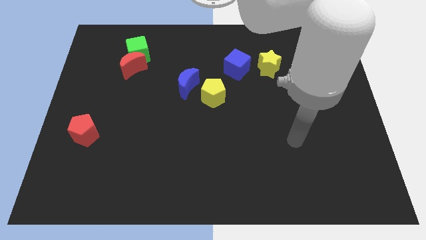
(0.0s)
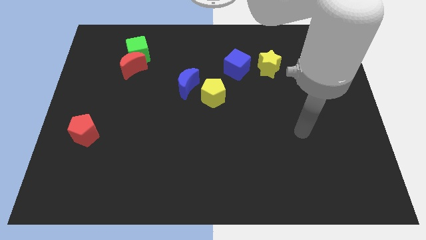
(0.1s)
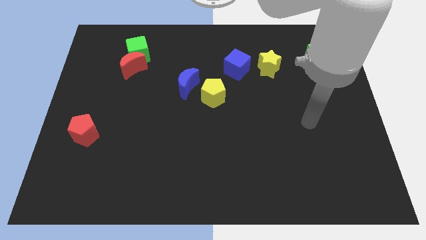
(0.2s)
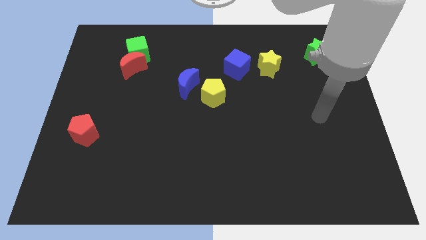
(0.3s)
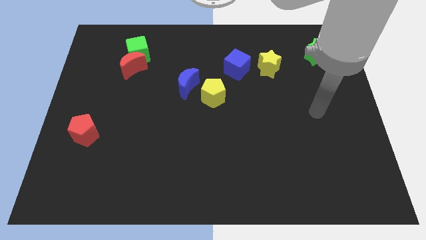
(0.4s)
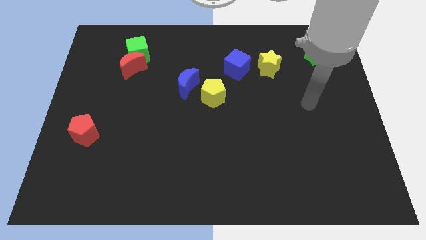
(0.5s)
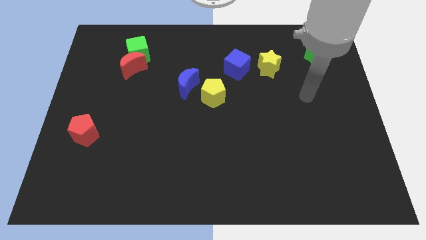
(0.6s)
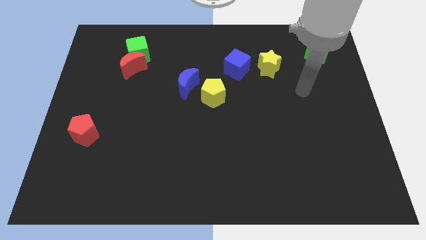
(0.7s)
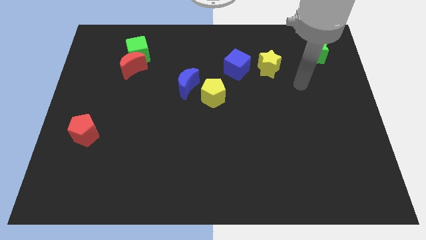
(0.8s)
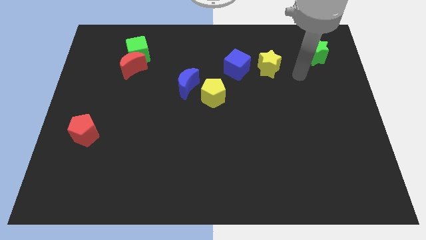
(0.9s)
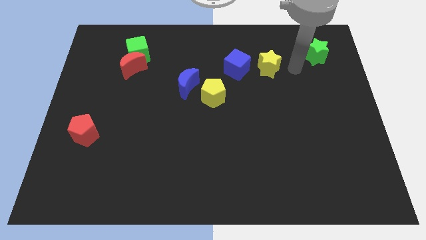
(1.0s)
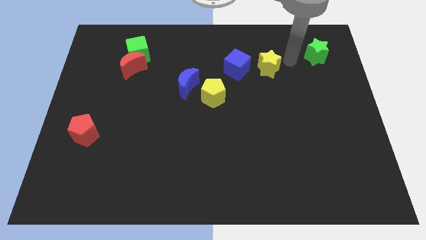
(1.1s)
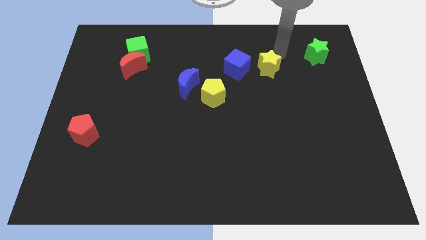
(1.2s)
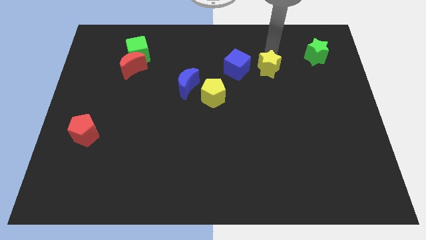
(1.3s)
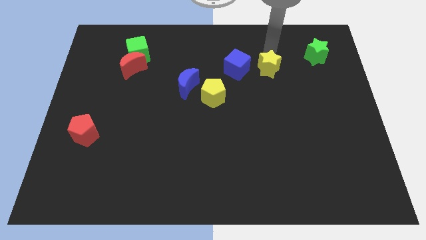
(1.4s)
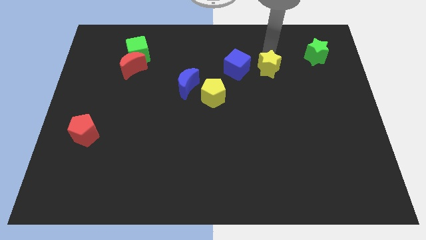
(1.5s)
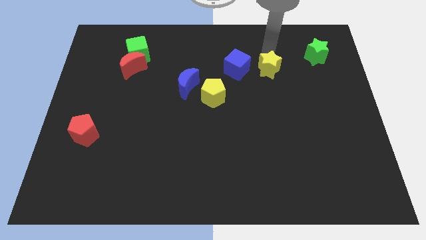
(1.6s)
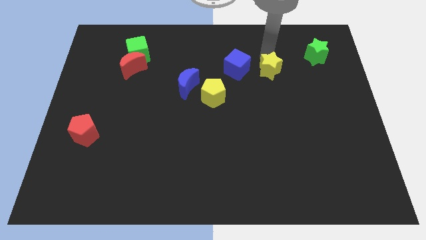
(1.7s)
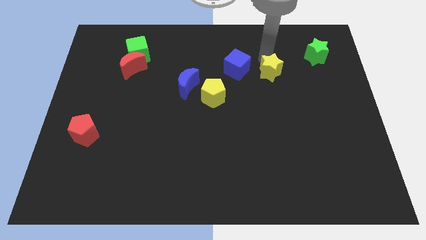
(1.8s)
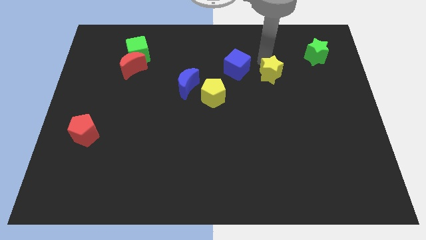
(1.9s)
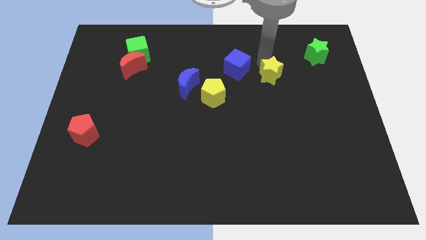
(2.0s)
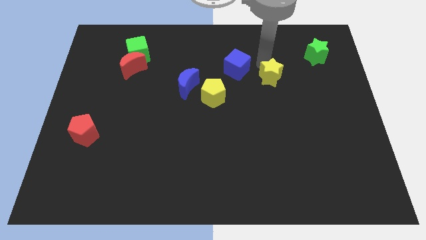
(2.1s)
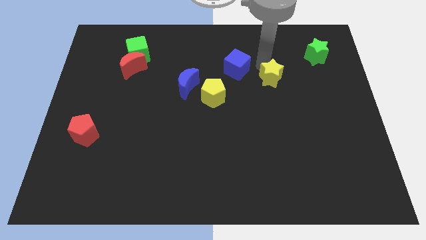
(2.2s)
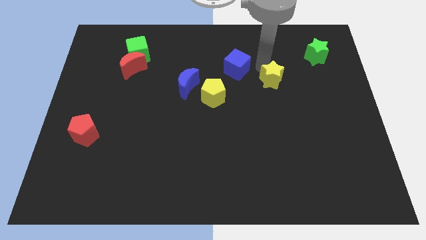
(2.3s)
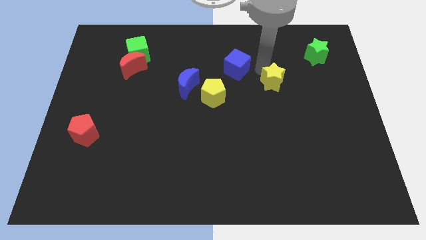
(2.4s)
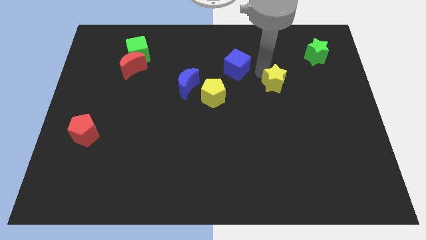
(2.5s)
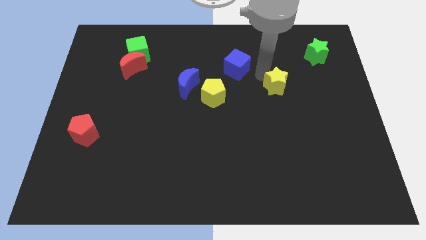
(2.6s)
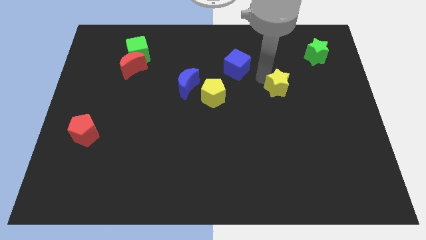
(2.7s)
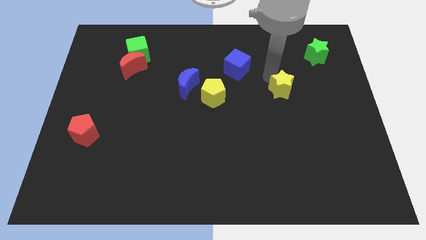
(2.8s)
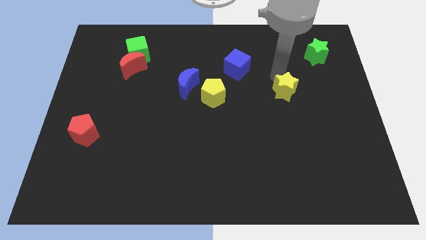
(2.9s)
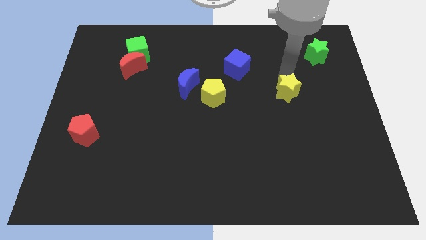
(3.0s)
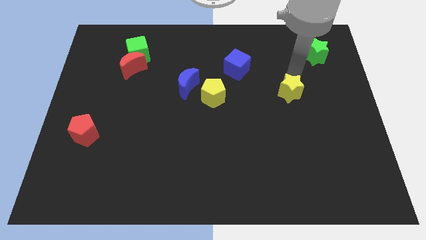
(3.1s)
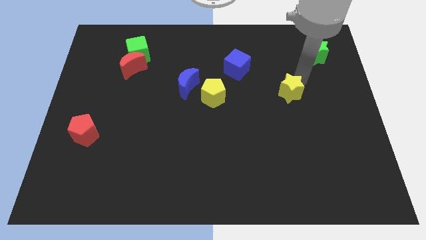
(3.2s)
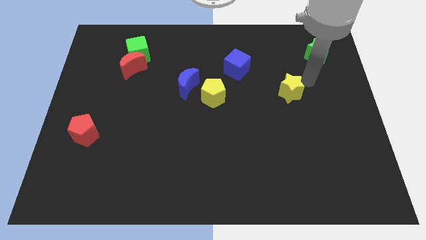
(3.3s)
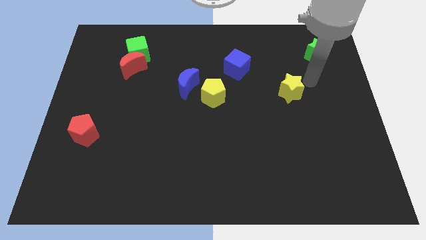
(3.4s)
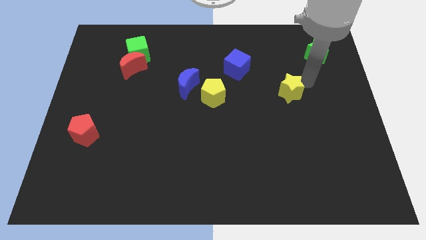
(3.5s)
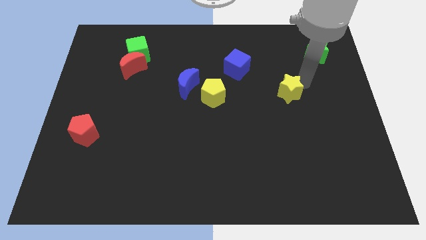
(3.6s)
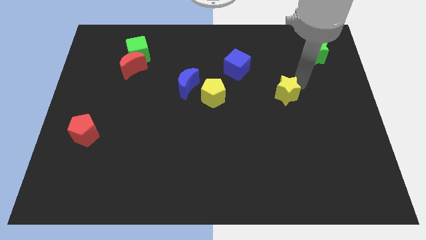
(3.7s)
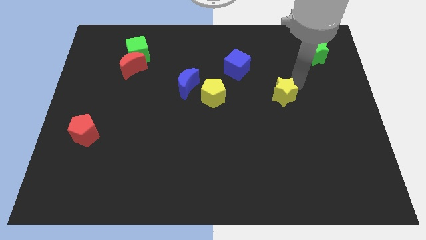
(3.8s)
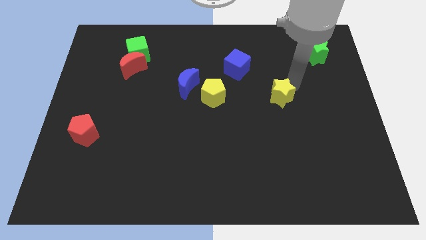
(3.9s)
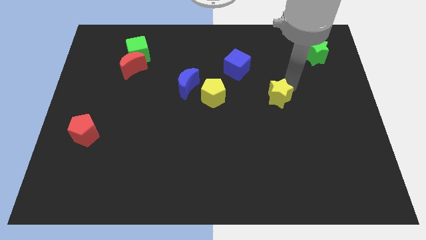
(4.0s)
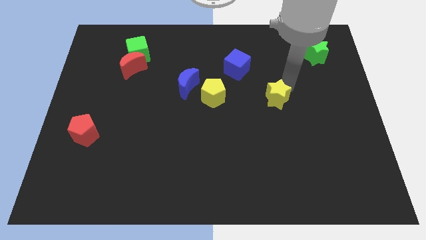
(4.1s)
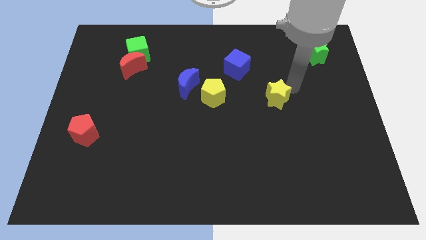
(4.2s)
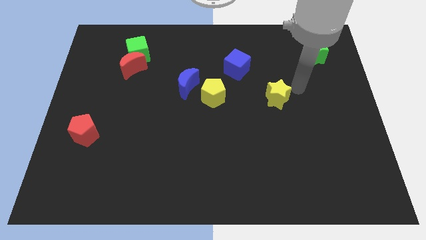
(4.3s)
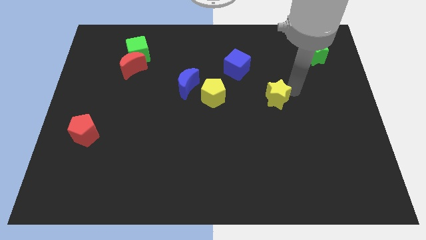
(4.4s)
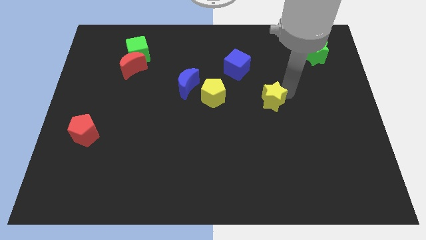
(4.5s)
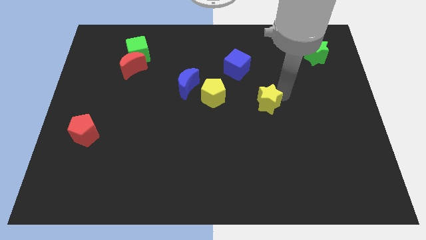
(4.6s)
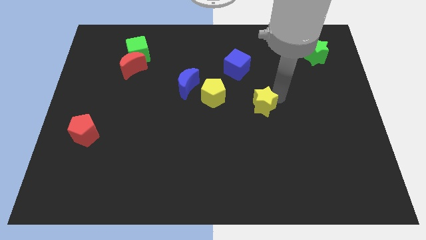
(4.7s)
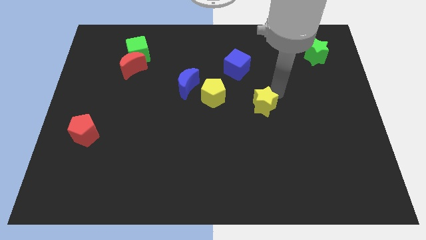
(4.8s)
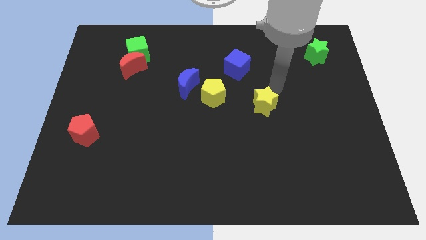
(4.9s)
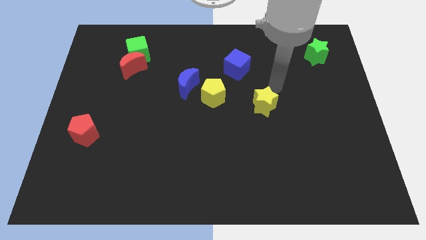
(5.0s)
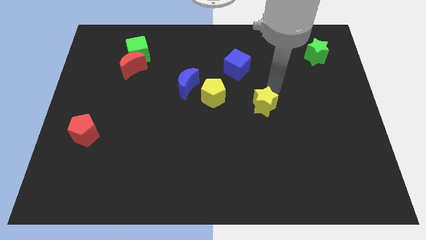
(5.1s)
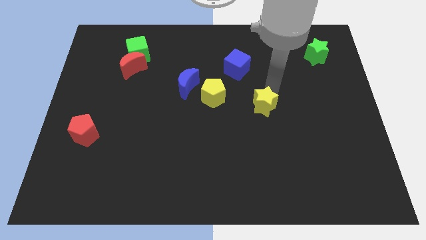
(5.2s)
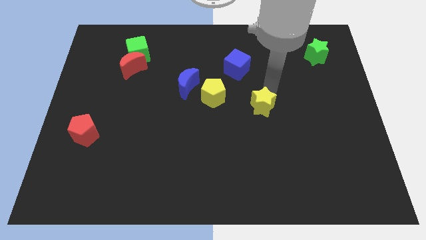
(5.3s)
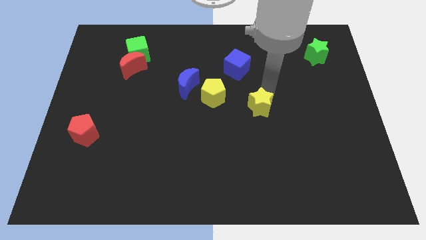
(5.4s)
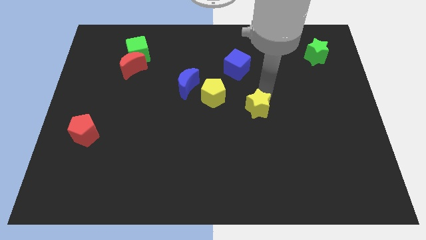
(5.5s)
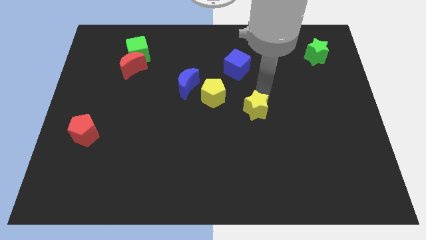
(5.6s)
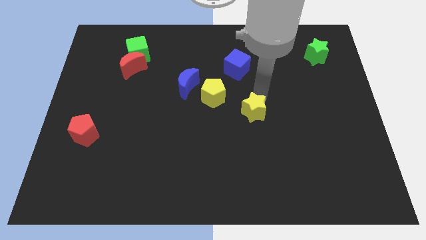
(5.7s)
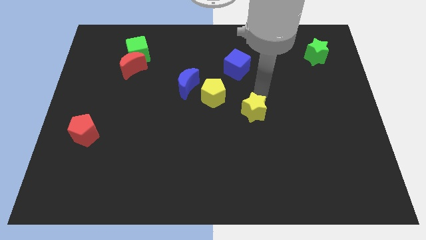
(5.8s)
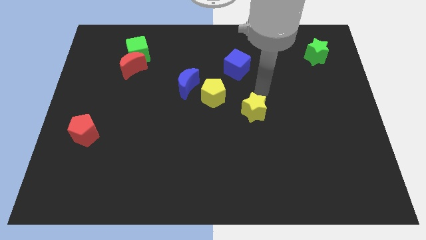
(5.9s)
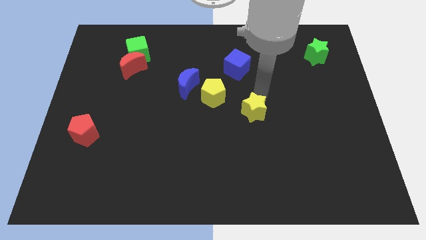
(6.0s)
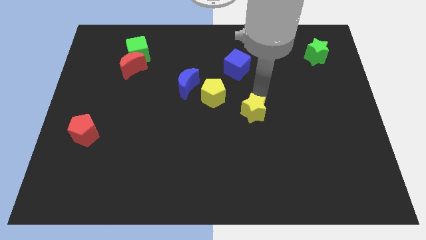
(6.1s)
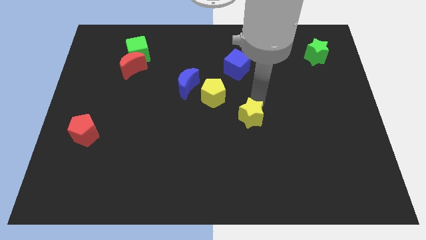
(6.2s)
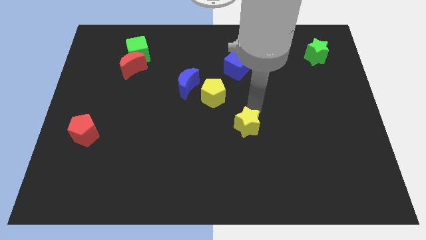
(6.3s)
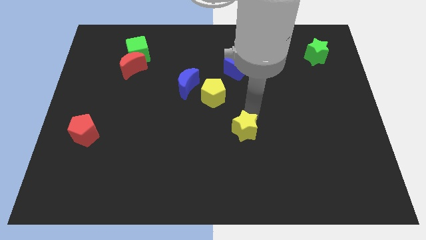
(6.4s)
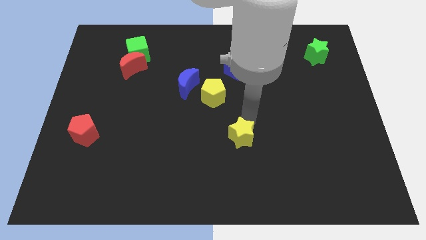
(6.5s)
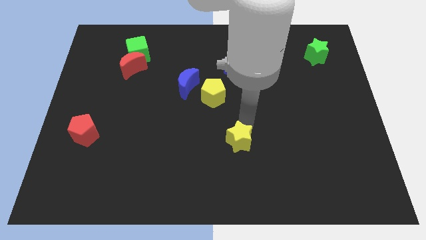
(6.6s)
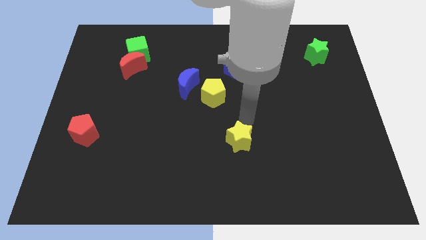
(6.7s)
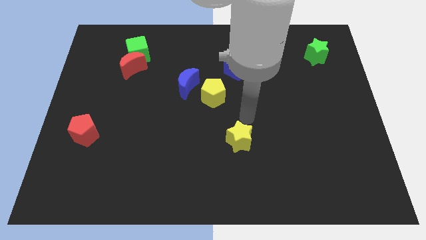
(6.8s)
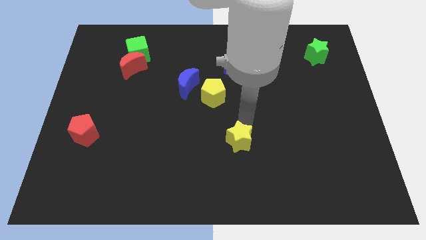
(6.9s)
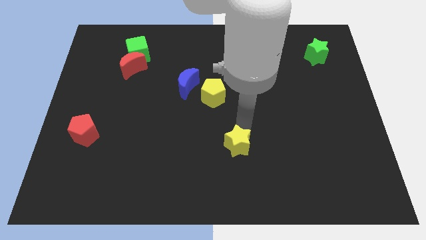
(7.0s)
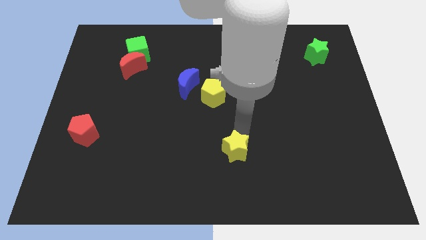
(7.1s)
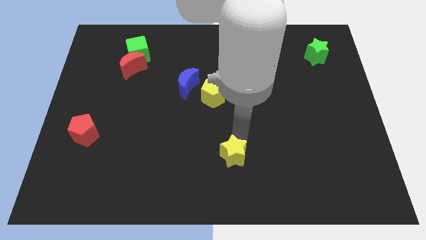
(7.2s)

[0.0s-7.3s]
push the yellow star to the bottom
